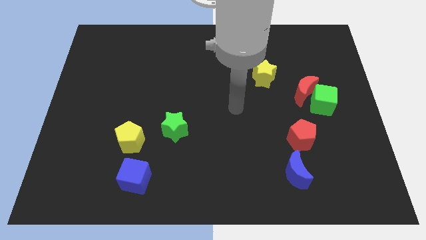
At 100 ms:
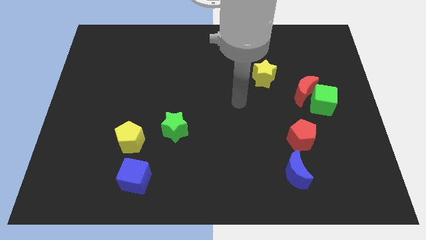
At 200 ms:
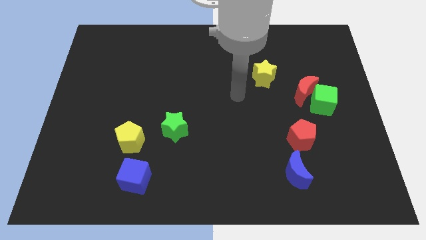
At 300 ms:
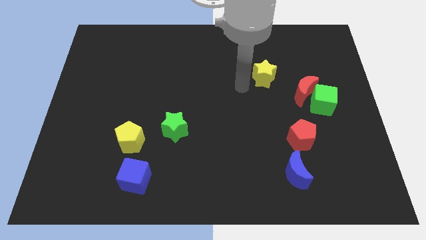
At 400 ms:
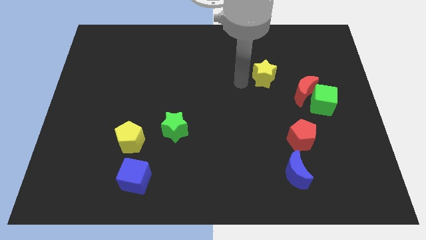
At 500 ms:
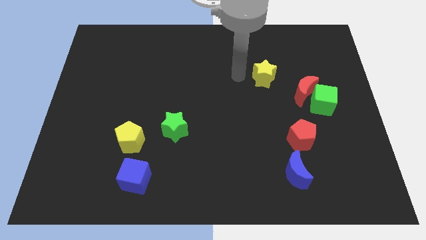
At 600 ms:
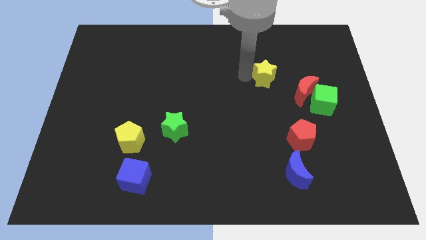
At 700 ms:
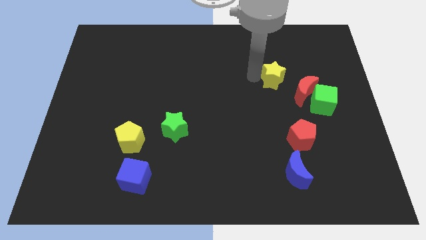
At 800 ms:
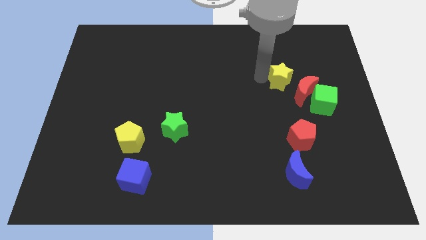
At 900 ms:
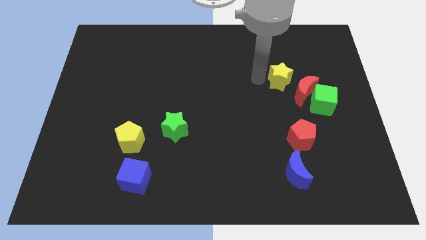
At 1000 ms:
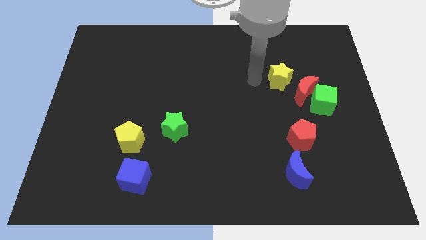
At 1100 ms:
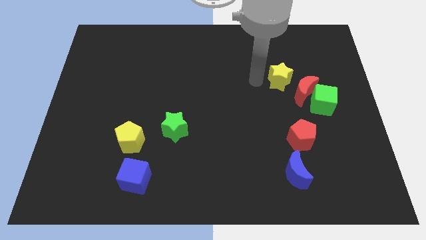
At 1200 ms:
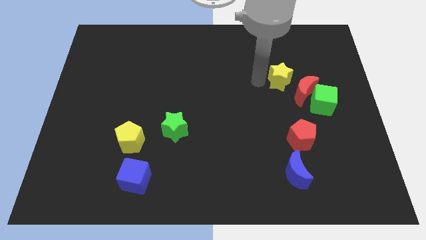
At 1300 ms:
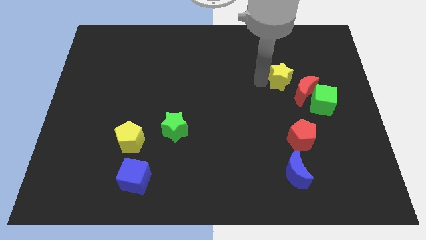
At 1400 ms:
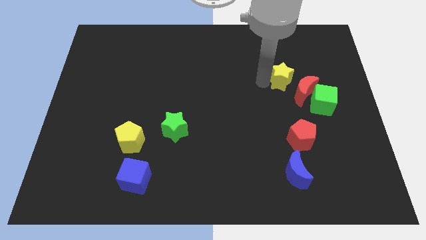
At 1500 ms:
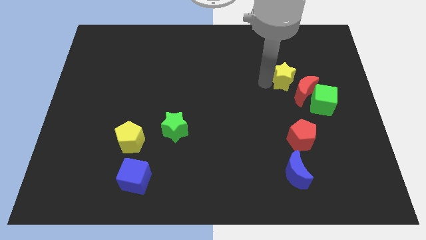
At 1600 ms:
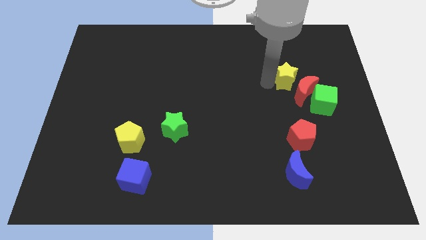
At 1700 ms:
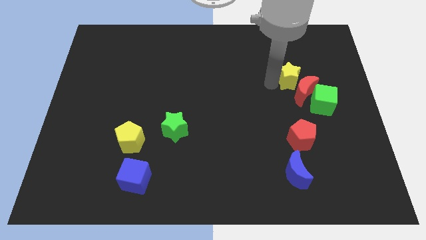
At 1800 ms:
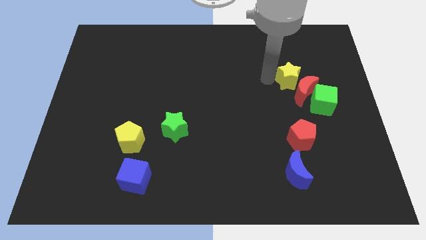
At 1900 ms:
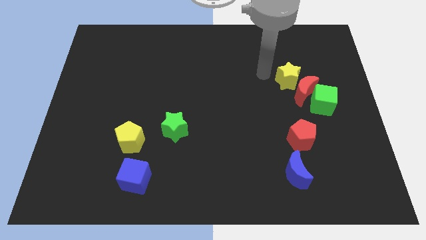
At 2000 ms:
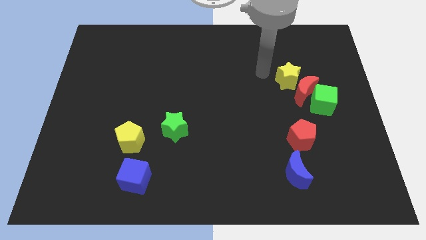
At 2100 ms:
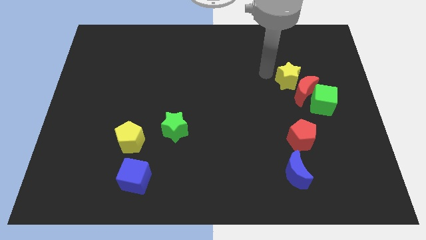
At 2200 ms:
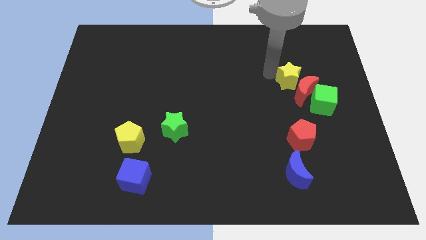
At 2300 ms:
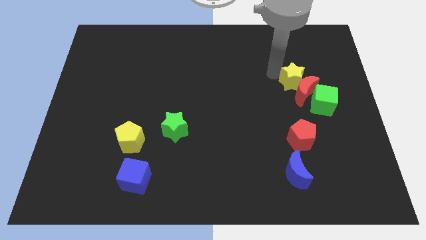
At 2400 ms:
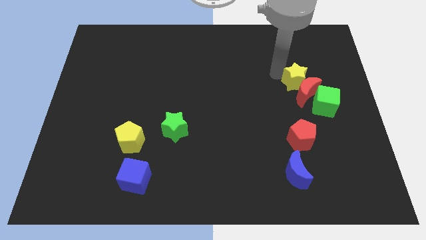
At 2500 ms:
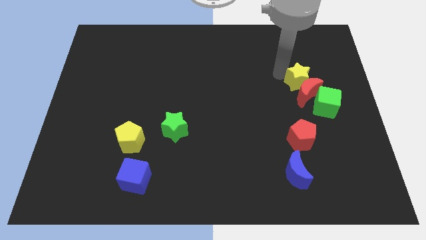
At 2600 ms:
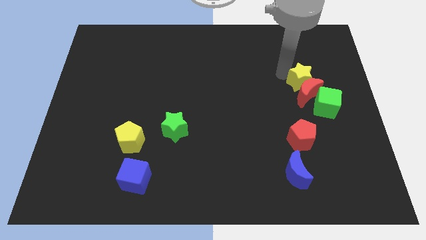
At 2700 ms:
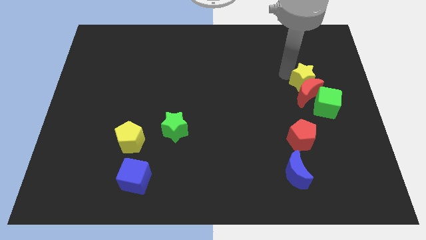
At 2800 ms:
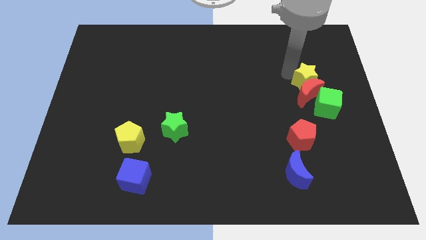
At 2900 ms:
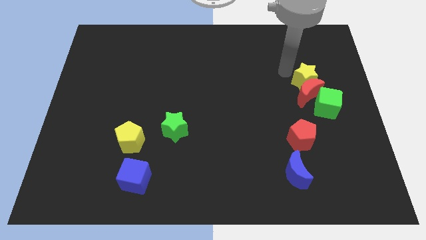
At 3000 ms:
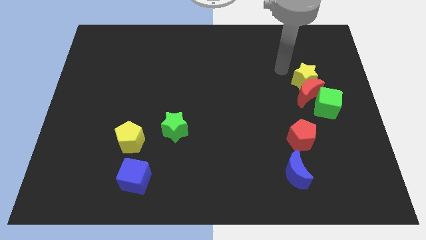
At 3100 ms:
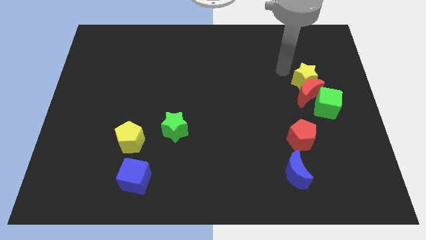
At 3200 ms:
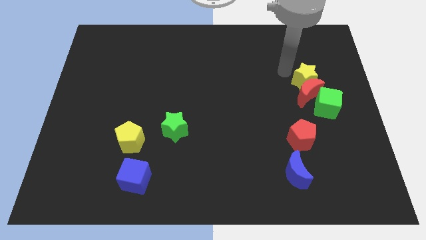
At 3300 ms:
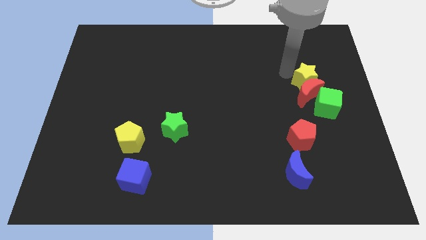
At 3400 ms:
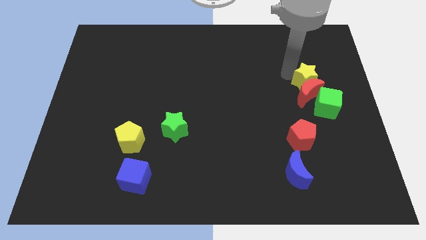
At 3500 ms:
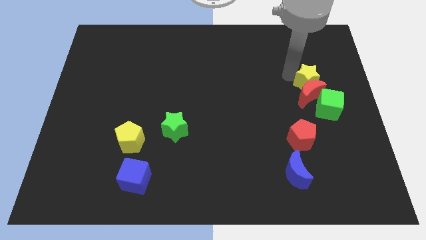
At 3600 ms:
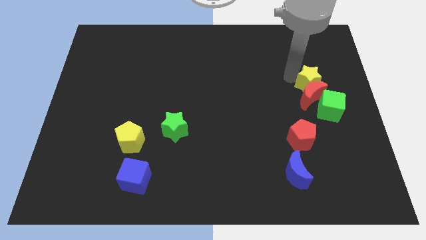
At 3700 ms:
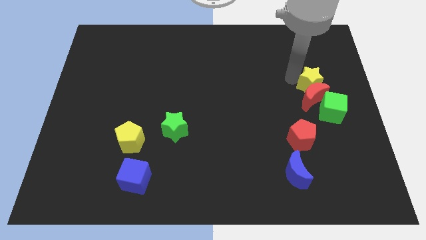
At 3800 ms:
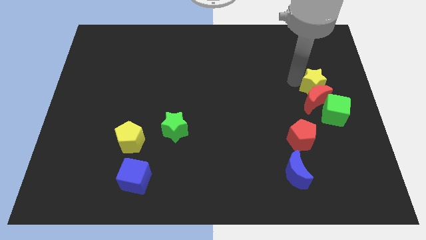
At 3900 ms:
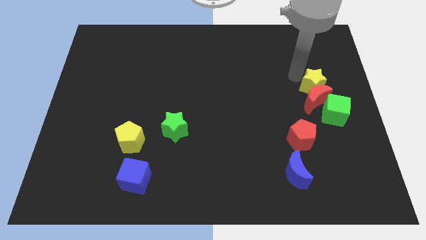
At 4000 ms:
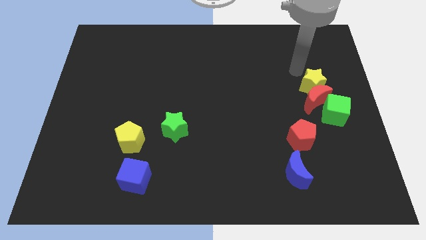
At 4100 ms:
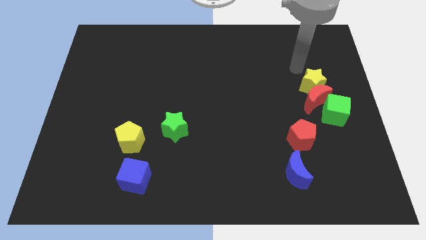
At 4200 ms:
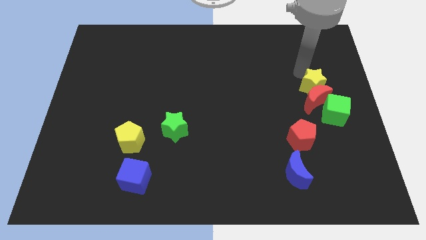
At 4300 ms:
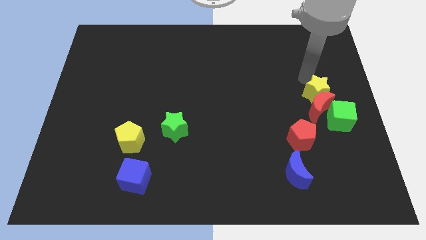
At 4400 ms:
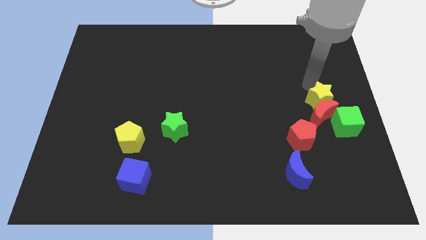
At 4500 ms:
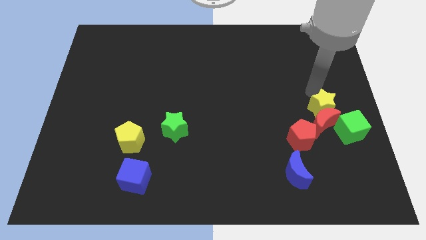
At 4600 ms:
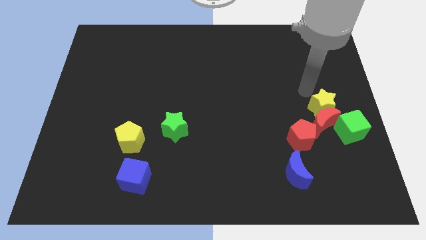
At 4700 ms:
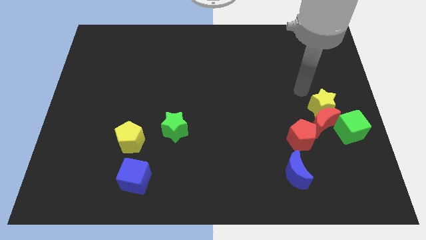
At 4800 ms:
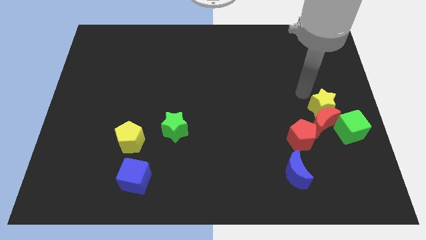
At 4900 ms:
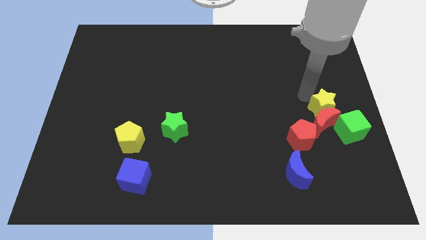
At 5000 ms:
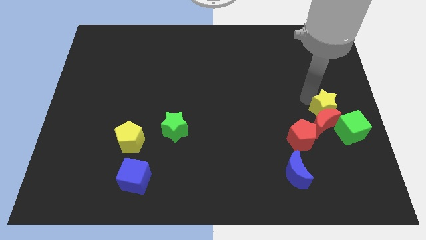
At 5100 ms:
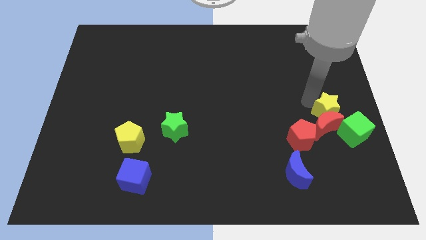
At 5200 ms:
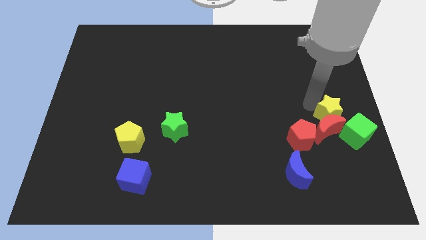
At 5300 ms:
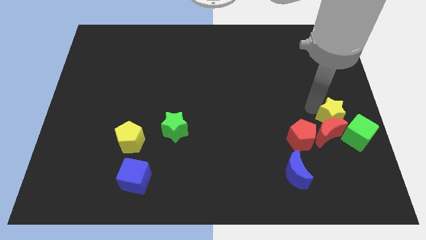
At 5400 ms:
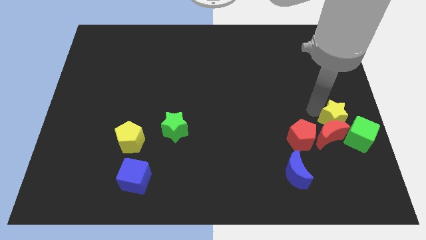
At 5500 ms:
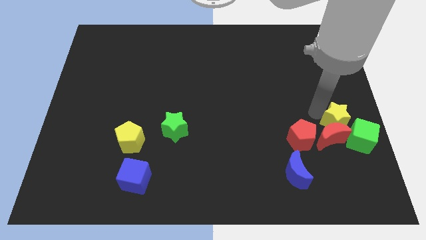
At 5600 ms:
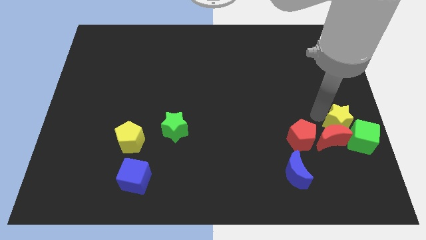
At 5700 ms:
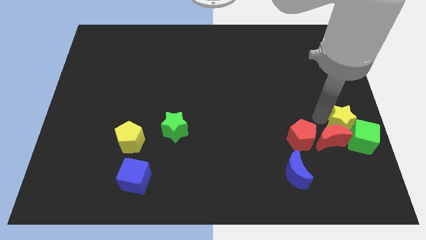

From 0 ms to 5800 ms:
put the yellow star close to the green cube

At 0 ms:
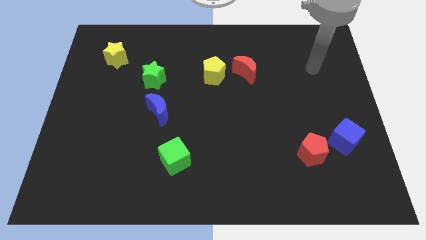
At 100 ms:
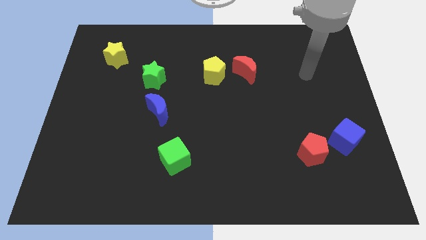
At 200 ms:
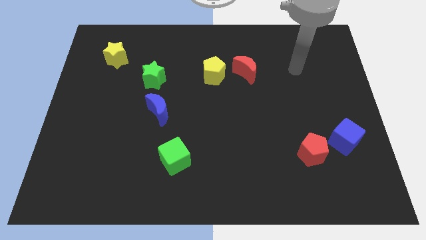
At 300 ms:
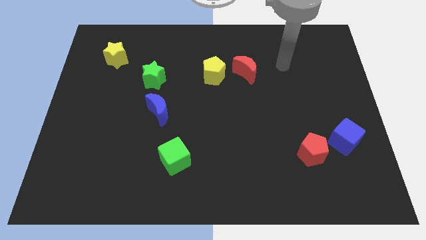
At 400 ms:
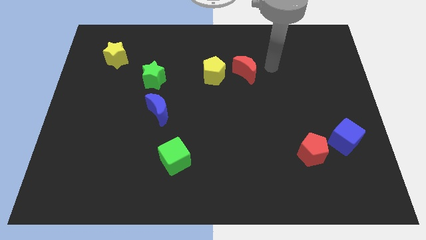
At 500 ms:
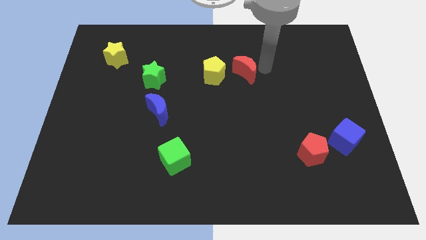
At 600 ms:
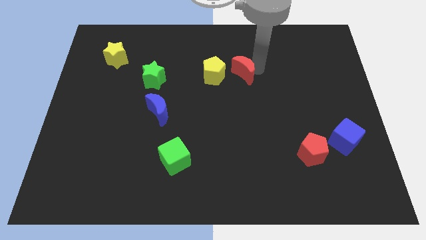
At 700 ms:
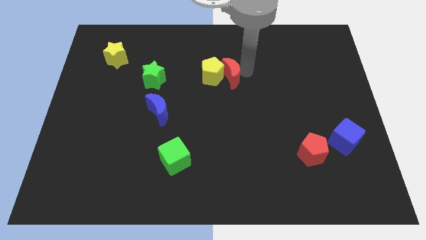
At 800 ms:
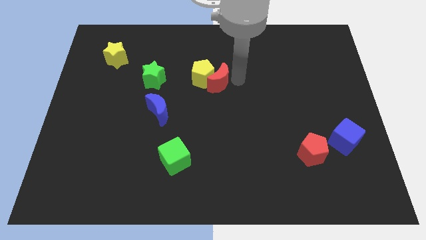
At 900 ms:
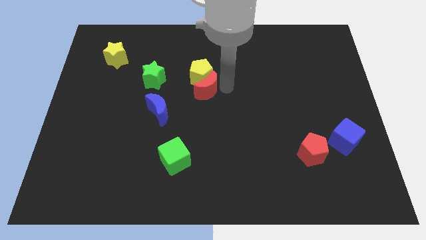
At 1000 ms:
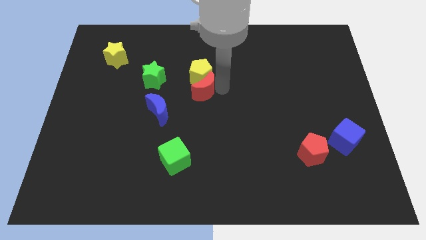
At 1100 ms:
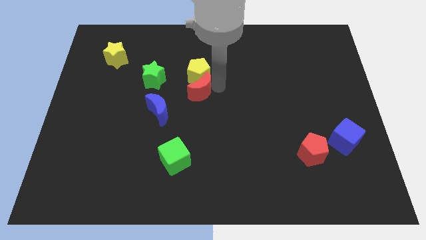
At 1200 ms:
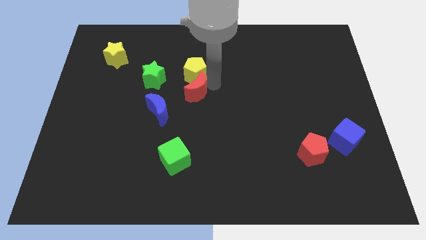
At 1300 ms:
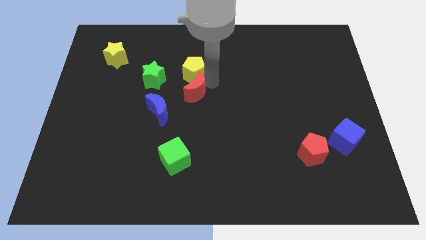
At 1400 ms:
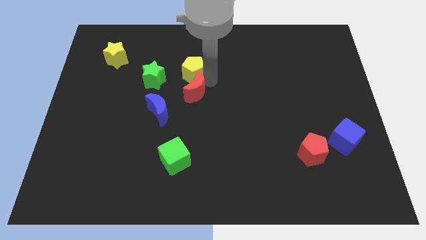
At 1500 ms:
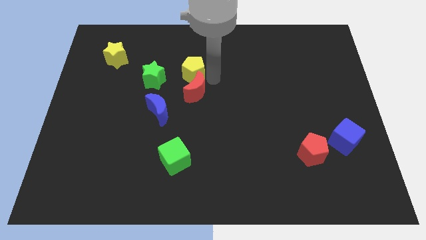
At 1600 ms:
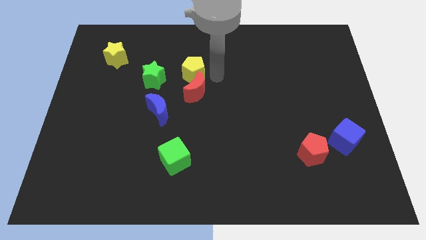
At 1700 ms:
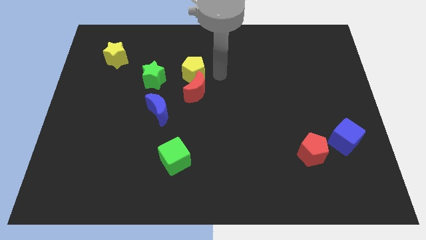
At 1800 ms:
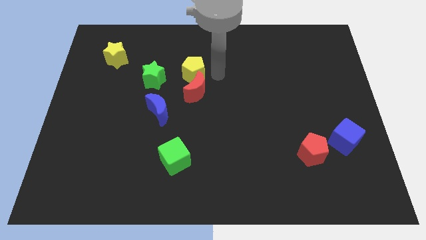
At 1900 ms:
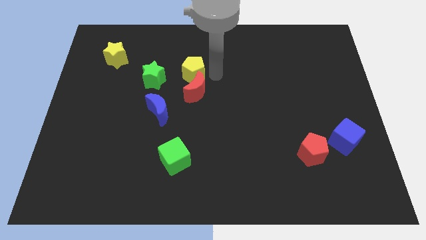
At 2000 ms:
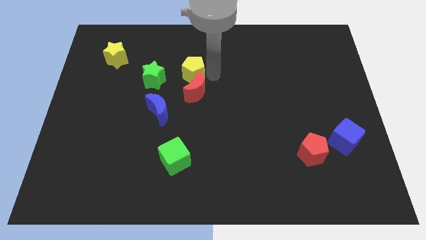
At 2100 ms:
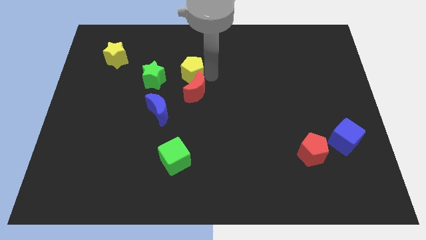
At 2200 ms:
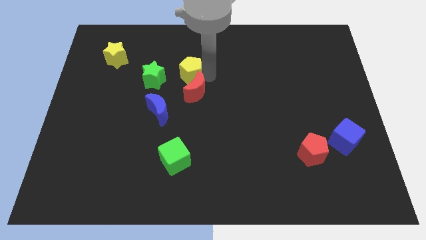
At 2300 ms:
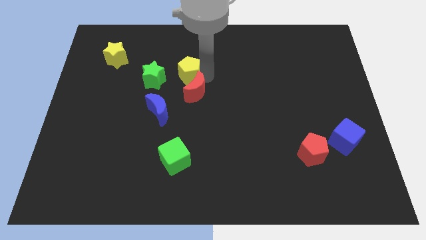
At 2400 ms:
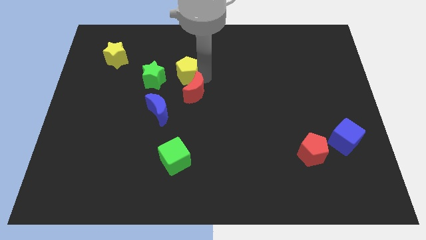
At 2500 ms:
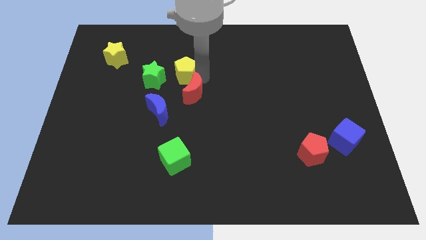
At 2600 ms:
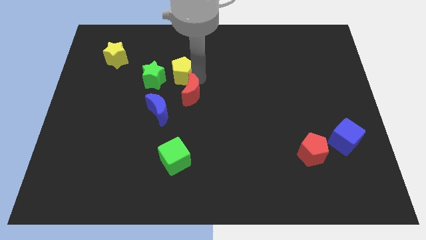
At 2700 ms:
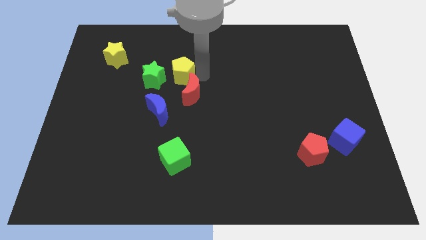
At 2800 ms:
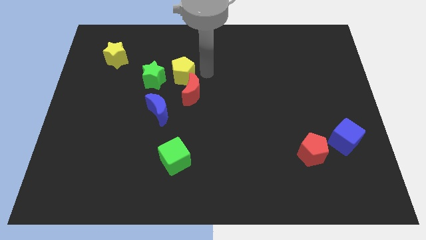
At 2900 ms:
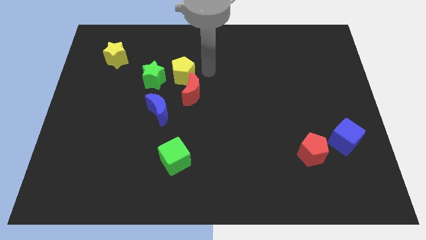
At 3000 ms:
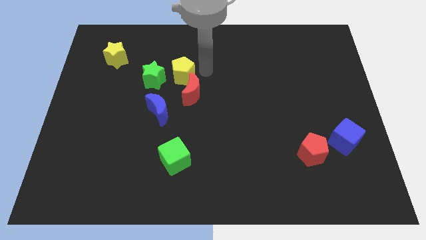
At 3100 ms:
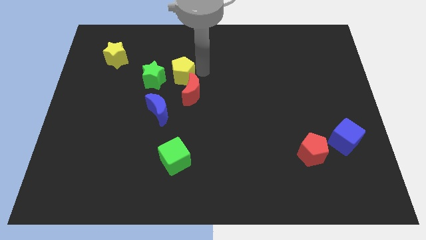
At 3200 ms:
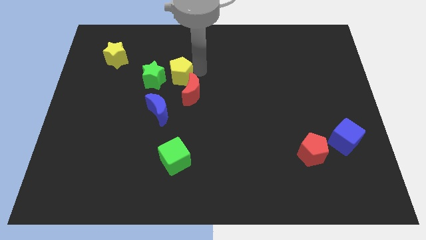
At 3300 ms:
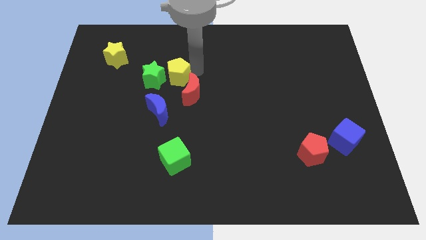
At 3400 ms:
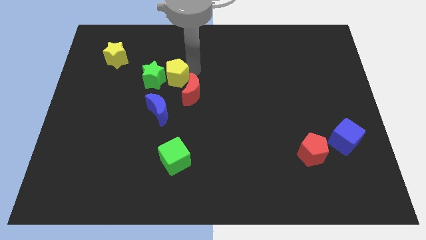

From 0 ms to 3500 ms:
put the yellow pentagon to the green star
